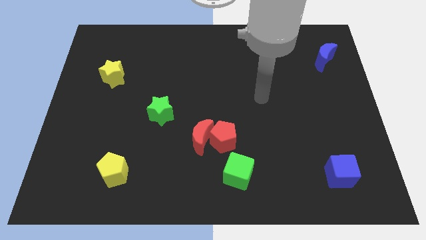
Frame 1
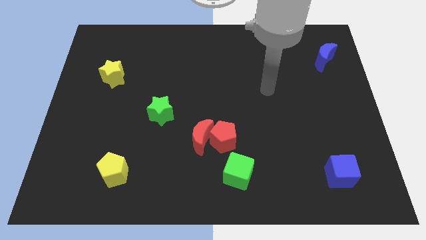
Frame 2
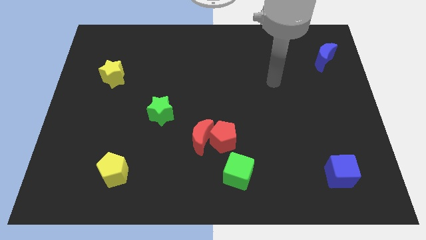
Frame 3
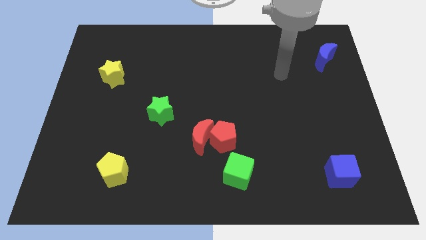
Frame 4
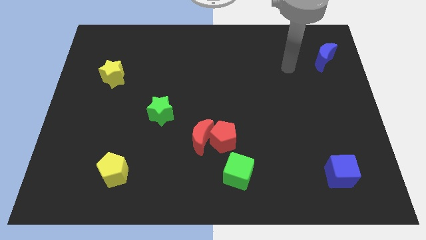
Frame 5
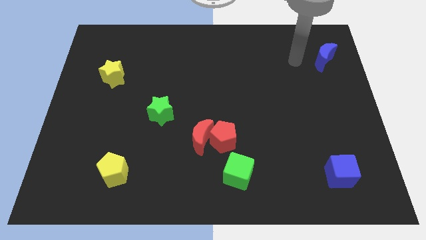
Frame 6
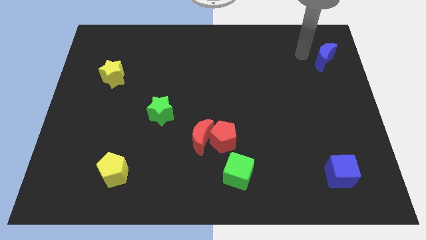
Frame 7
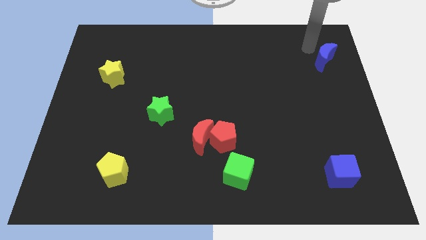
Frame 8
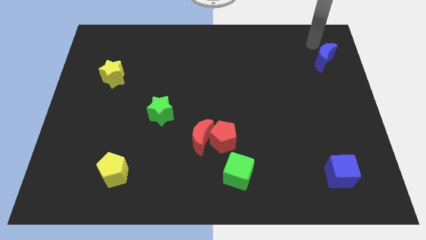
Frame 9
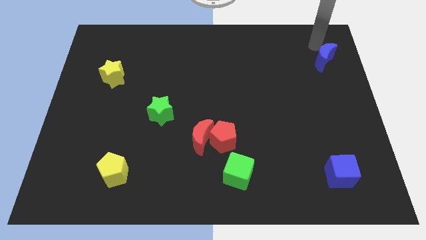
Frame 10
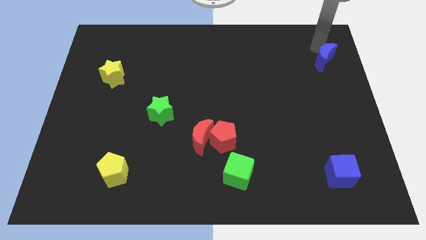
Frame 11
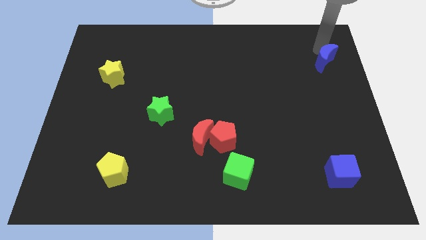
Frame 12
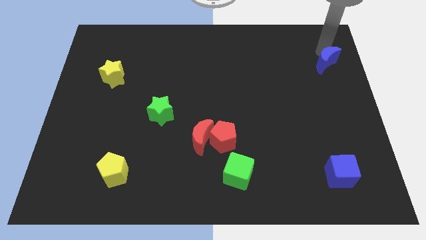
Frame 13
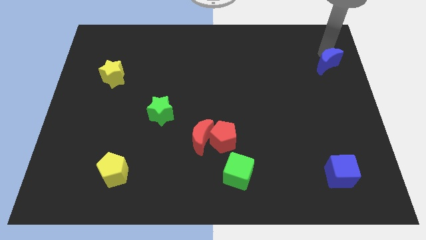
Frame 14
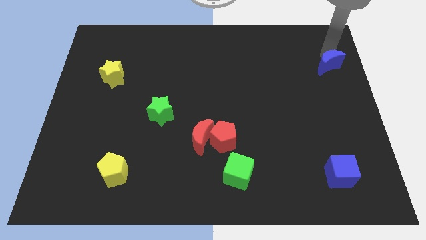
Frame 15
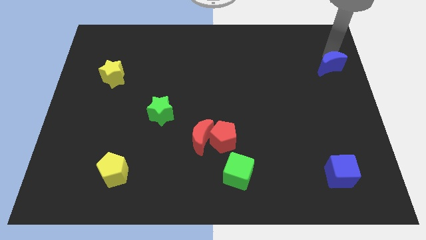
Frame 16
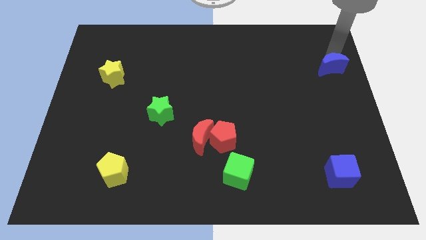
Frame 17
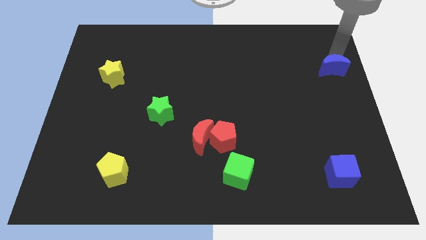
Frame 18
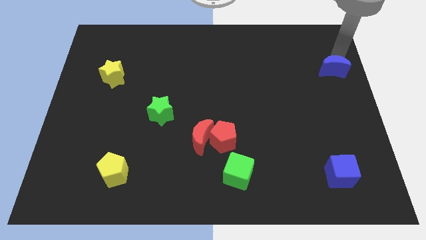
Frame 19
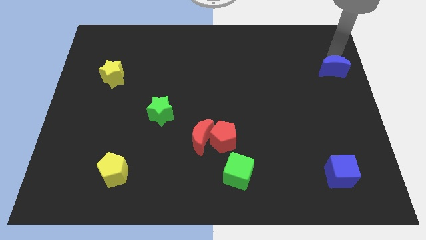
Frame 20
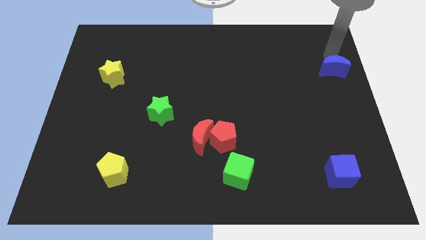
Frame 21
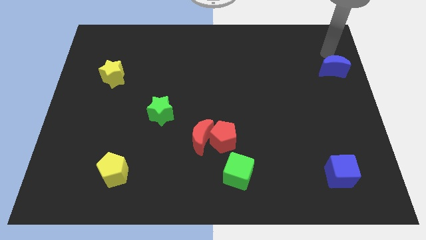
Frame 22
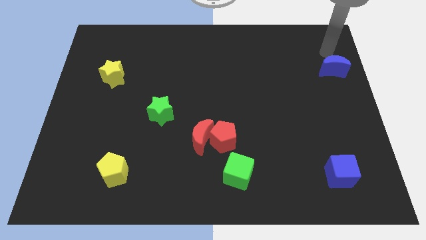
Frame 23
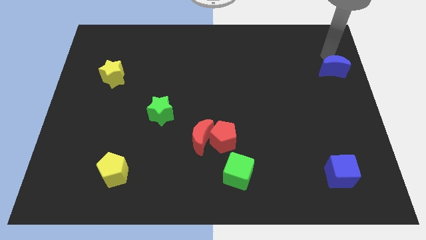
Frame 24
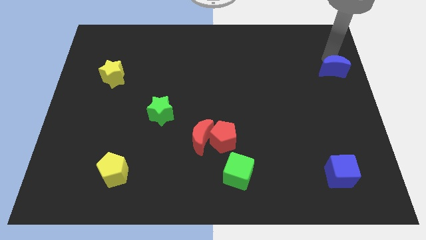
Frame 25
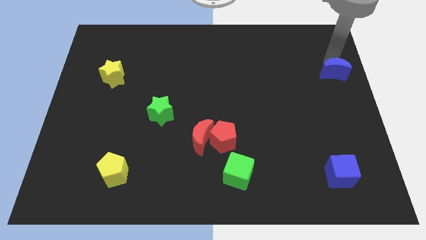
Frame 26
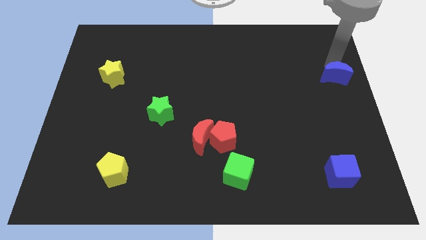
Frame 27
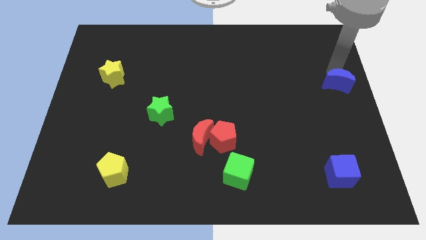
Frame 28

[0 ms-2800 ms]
slide the blue moon downwards slightly

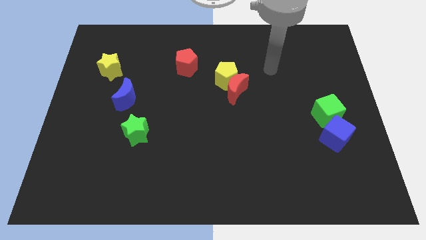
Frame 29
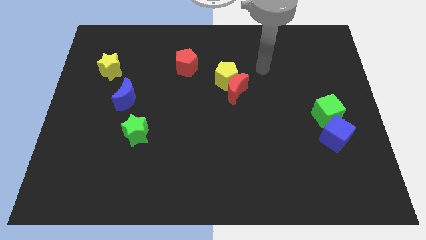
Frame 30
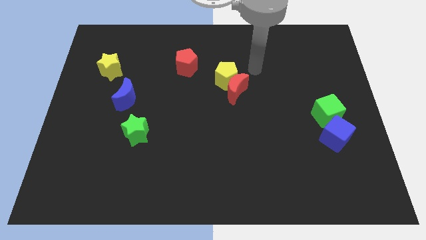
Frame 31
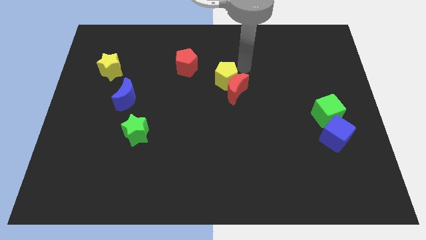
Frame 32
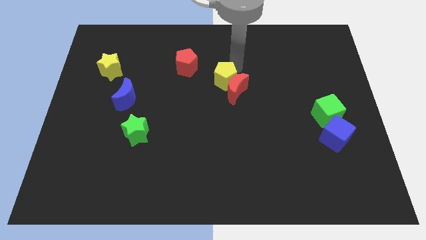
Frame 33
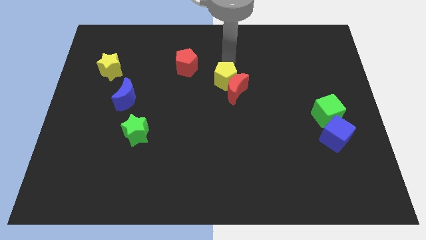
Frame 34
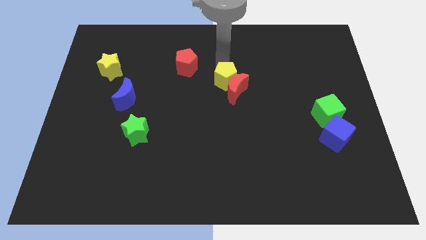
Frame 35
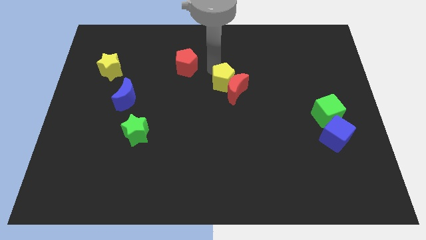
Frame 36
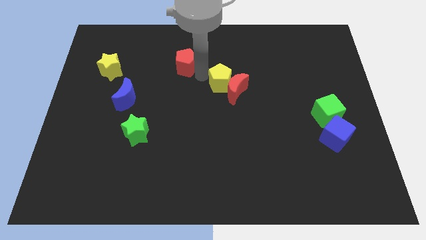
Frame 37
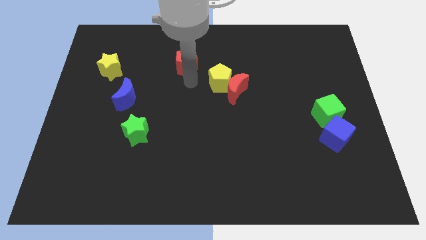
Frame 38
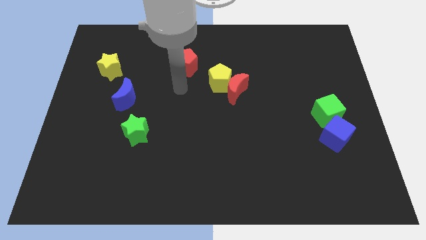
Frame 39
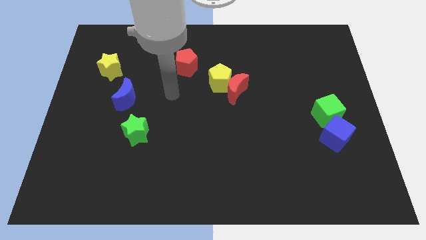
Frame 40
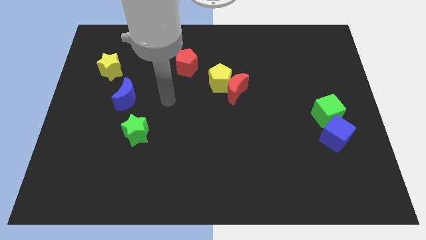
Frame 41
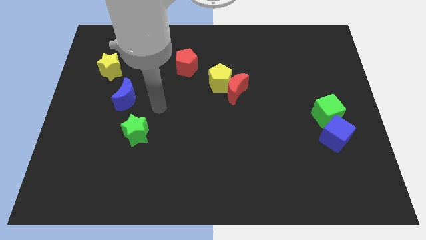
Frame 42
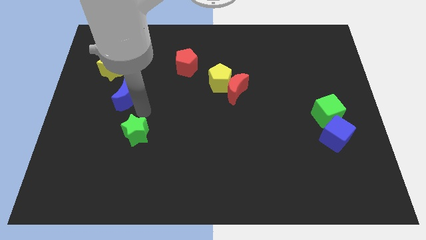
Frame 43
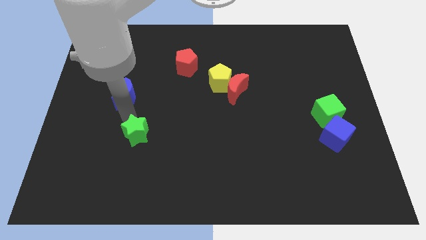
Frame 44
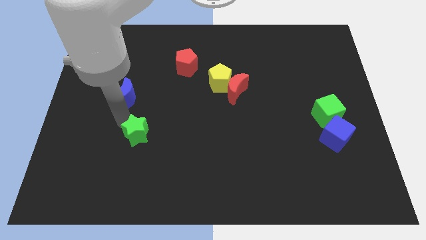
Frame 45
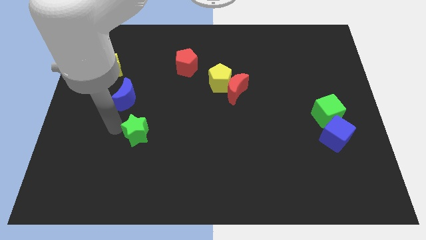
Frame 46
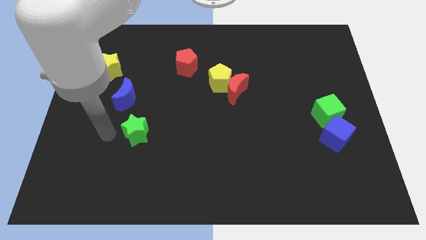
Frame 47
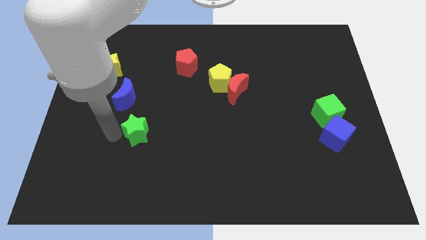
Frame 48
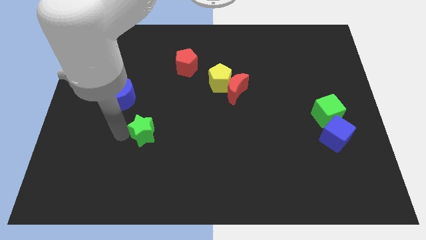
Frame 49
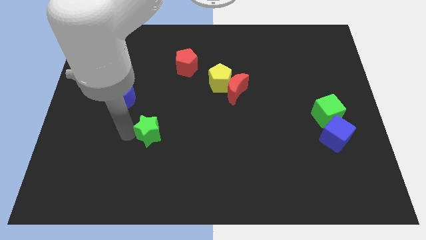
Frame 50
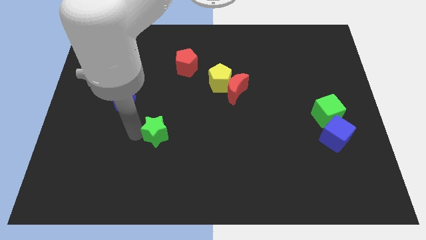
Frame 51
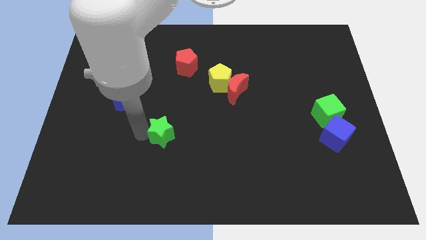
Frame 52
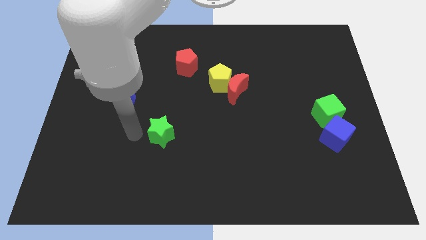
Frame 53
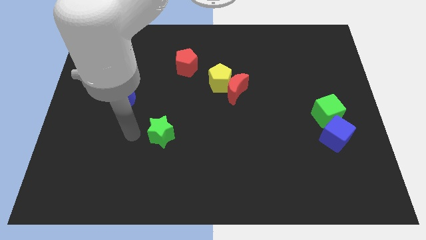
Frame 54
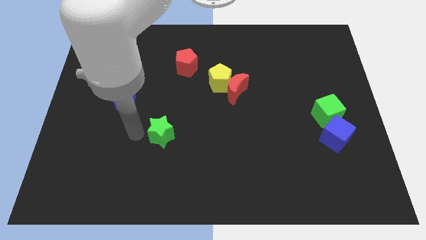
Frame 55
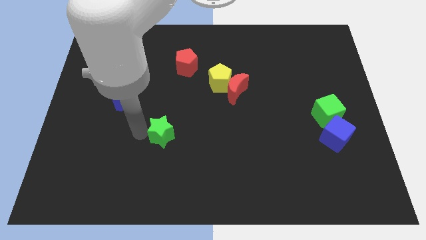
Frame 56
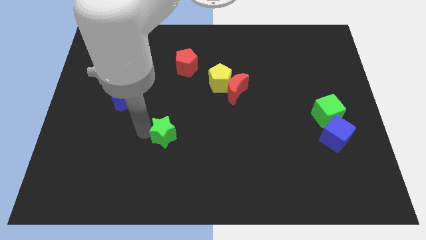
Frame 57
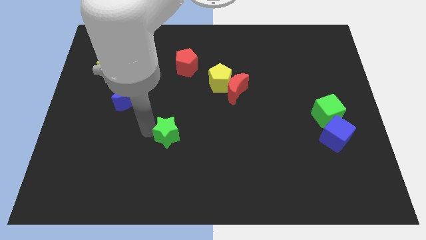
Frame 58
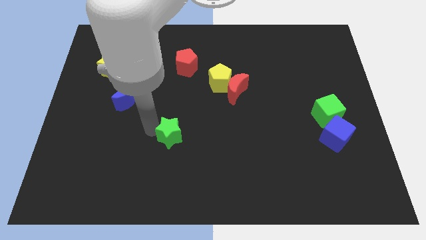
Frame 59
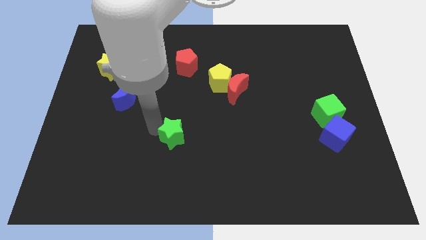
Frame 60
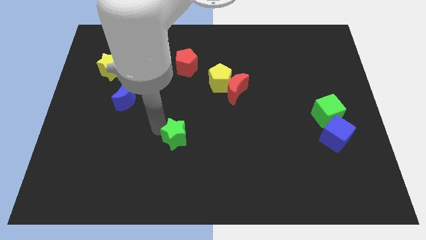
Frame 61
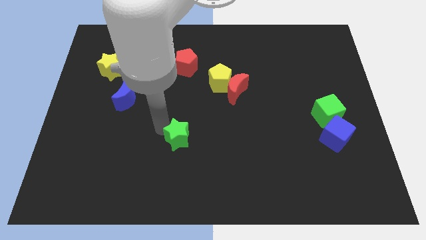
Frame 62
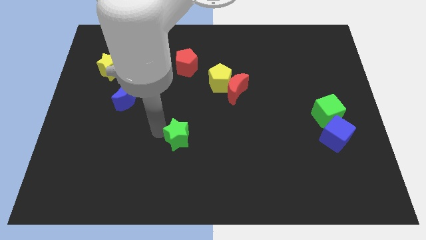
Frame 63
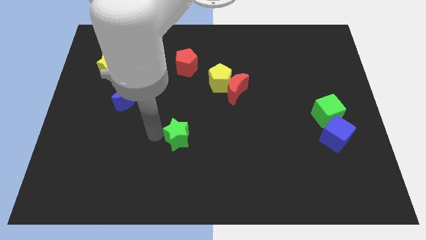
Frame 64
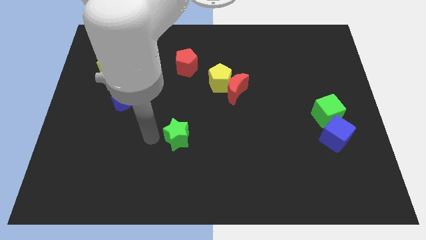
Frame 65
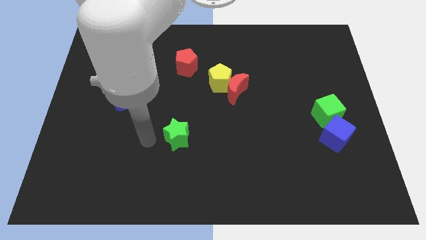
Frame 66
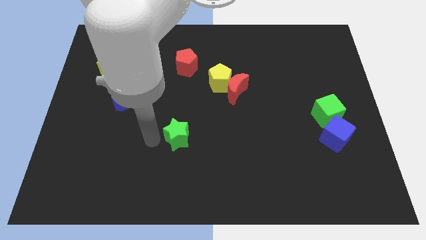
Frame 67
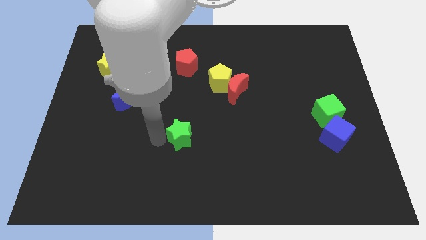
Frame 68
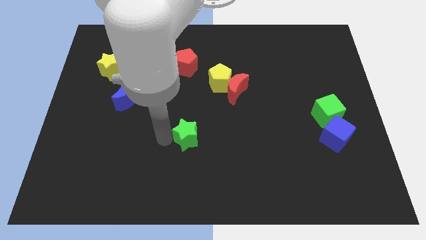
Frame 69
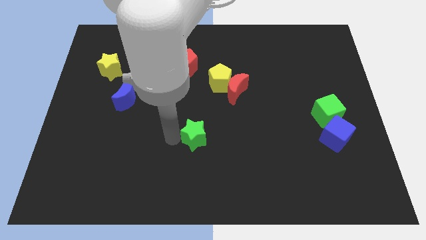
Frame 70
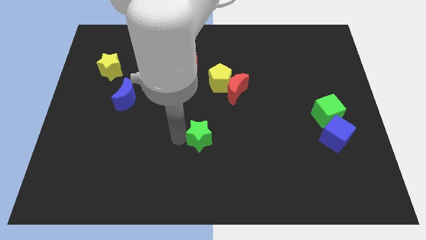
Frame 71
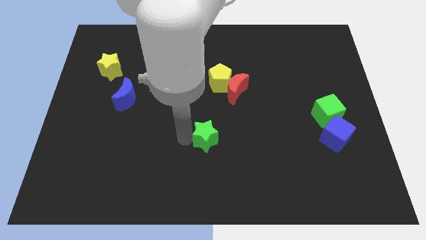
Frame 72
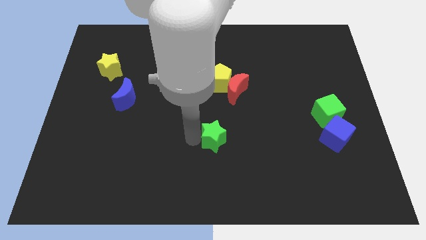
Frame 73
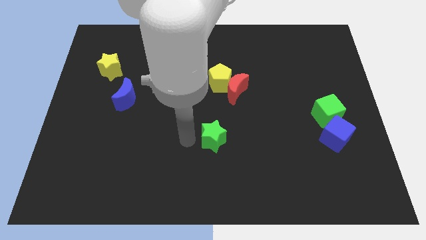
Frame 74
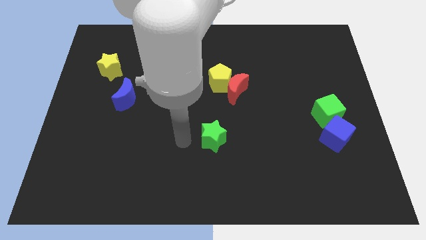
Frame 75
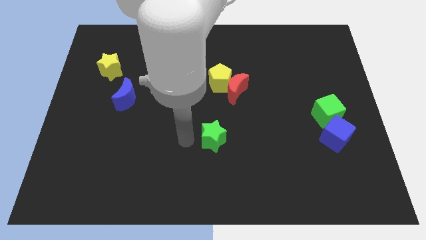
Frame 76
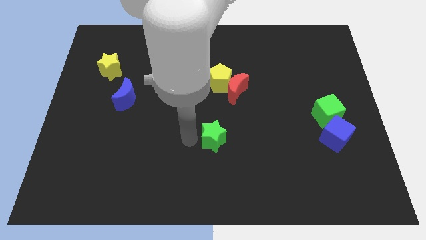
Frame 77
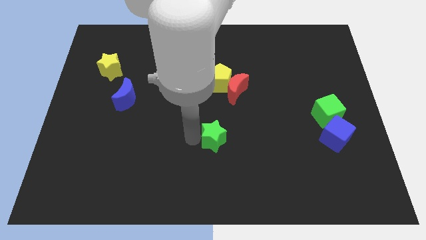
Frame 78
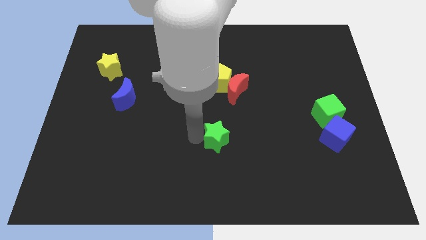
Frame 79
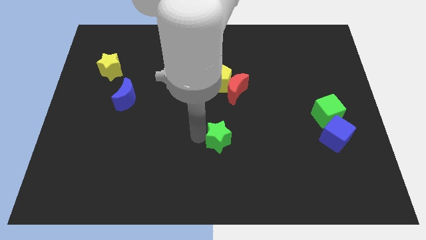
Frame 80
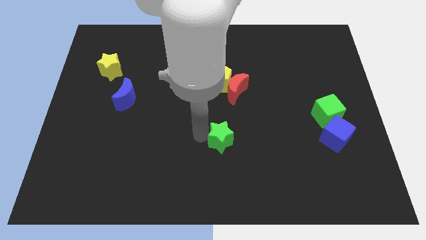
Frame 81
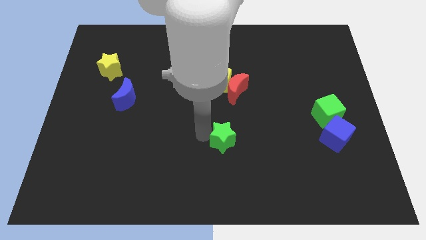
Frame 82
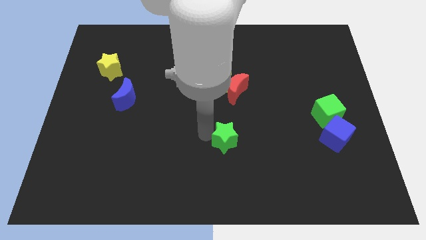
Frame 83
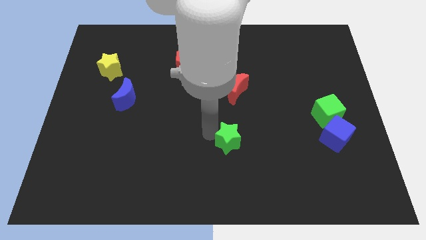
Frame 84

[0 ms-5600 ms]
push the green star right
